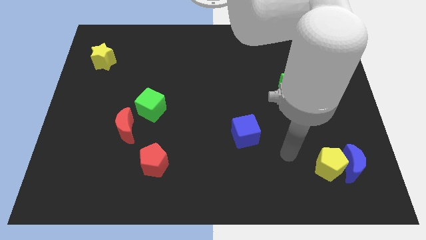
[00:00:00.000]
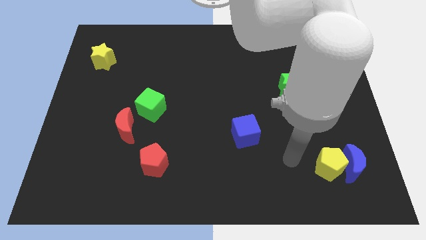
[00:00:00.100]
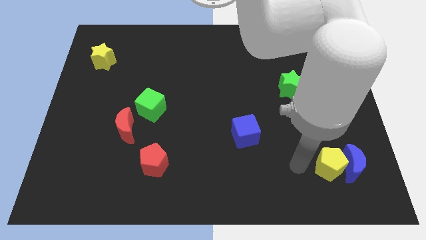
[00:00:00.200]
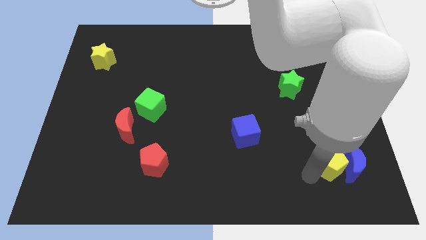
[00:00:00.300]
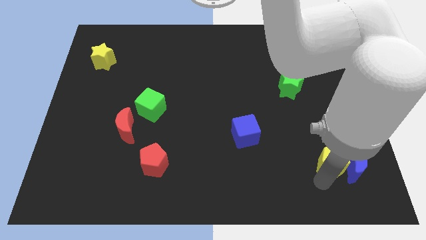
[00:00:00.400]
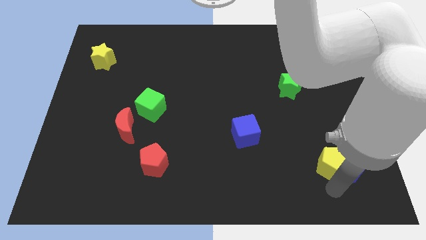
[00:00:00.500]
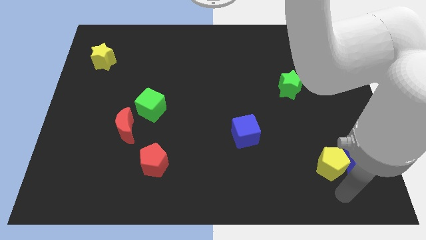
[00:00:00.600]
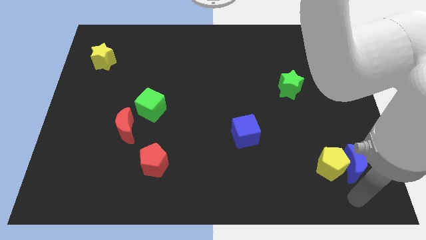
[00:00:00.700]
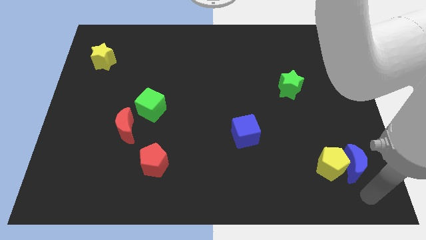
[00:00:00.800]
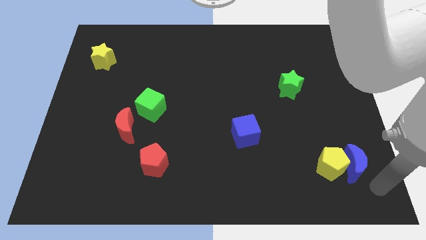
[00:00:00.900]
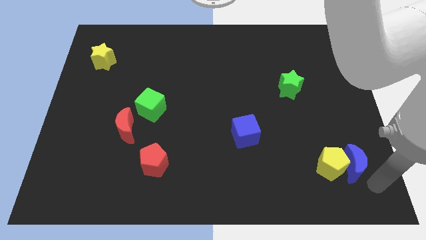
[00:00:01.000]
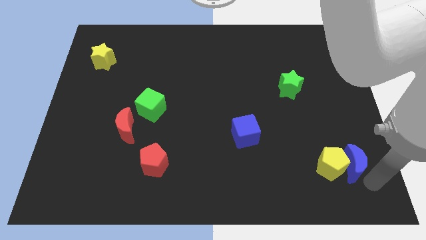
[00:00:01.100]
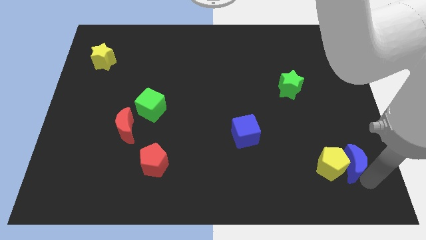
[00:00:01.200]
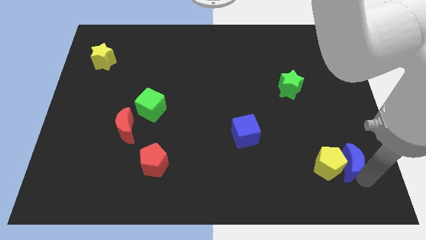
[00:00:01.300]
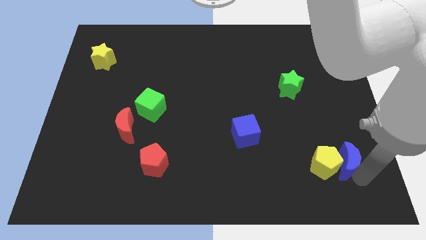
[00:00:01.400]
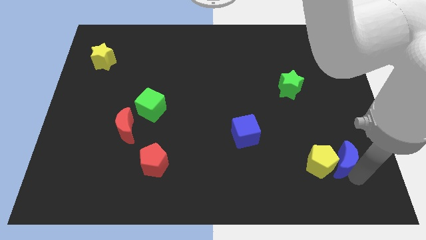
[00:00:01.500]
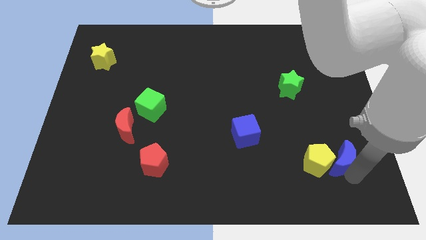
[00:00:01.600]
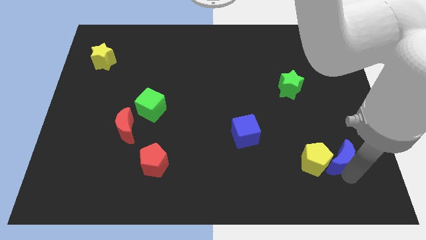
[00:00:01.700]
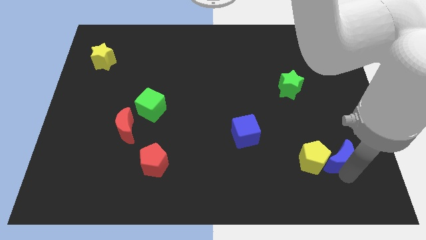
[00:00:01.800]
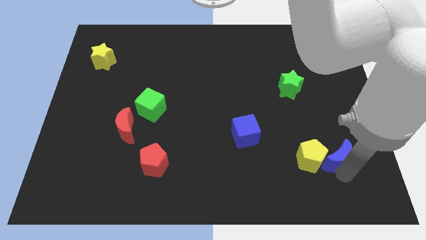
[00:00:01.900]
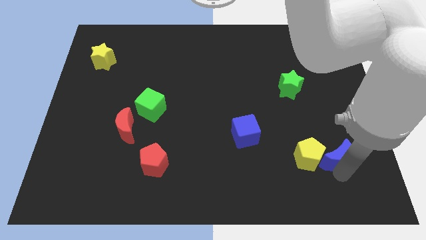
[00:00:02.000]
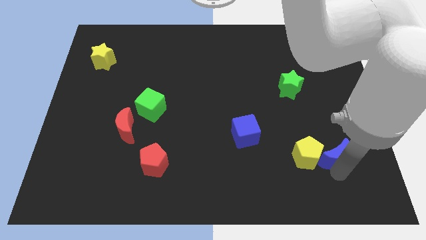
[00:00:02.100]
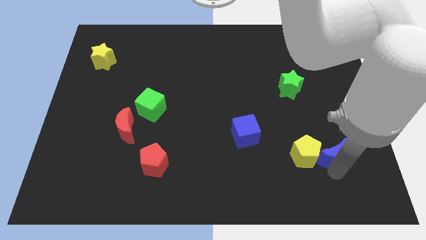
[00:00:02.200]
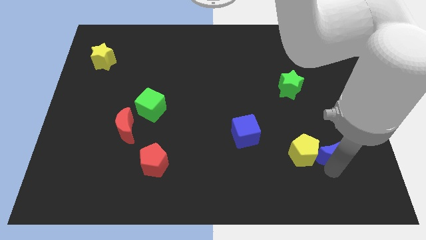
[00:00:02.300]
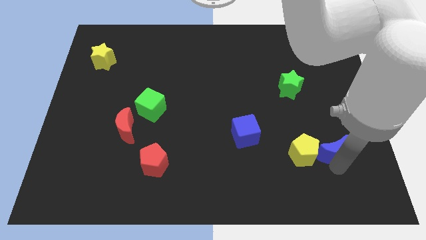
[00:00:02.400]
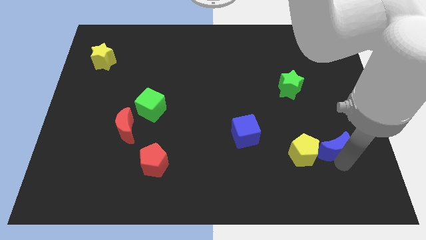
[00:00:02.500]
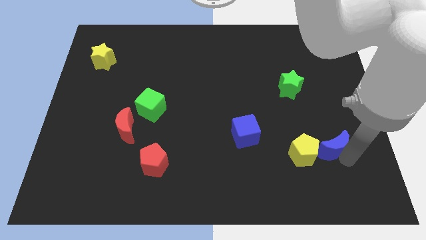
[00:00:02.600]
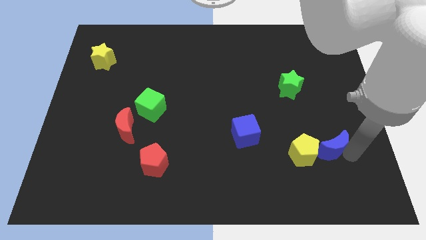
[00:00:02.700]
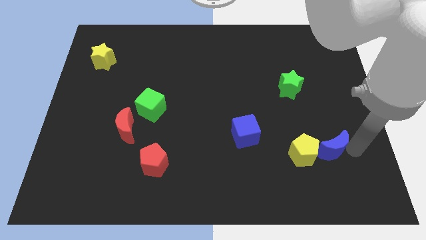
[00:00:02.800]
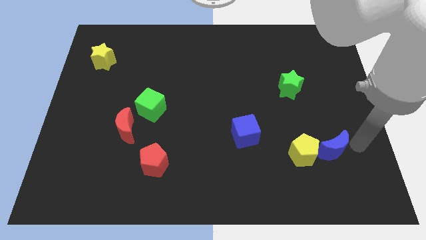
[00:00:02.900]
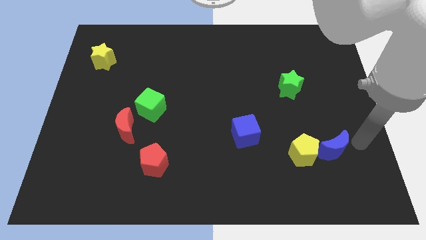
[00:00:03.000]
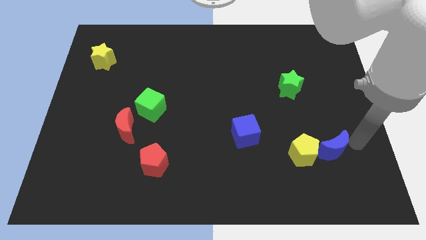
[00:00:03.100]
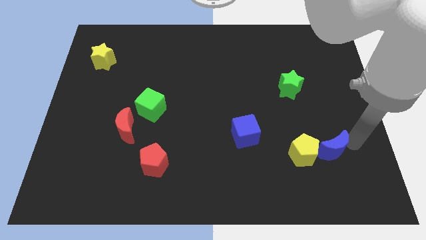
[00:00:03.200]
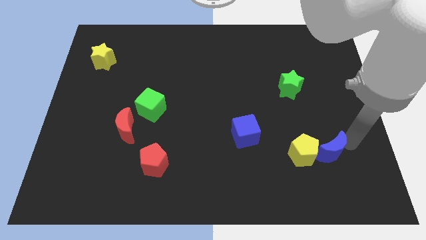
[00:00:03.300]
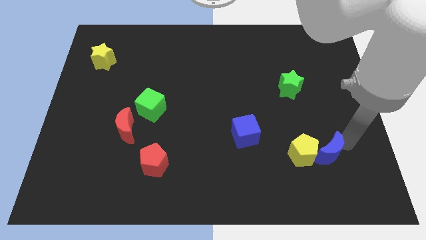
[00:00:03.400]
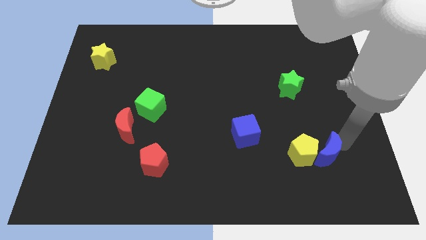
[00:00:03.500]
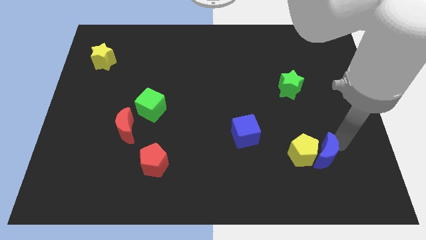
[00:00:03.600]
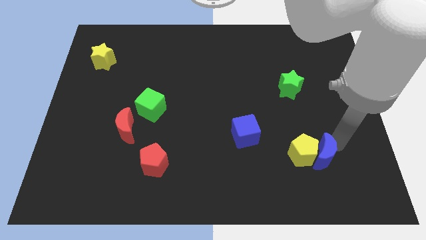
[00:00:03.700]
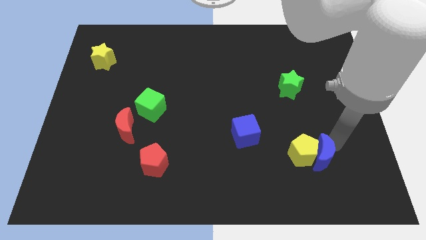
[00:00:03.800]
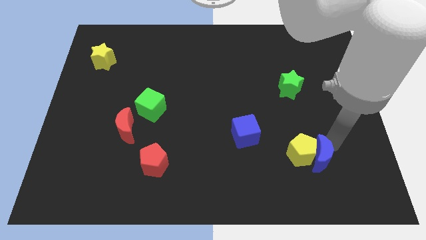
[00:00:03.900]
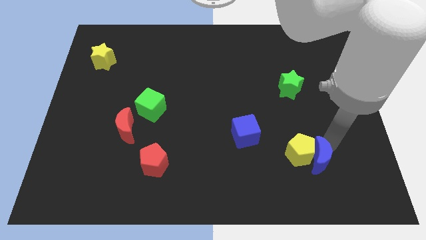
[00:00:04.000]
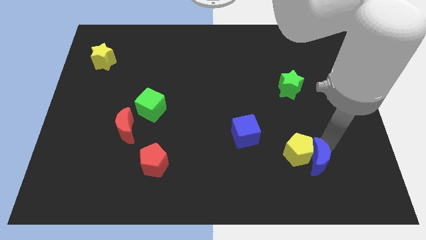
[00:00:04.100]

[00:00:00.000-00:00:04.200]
move the blue moon a little left

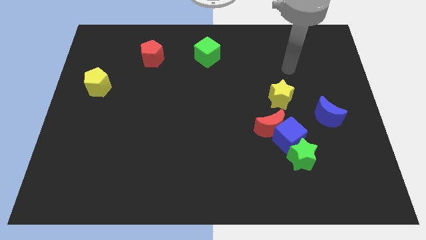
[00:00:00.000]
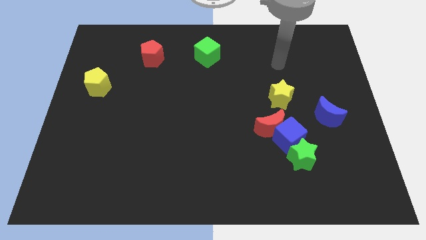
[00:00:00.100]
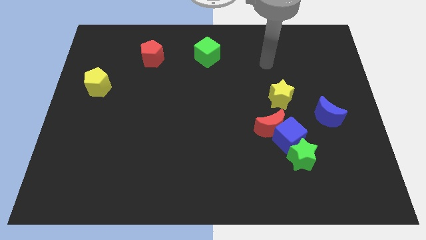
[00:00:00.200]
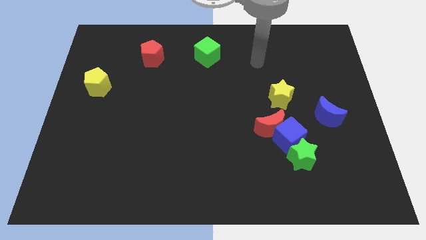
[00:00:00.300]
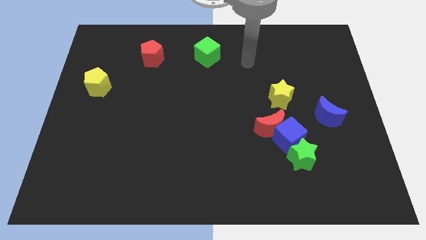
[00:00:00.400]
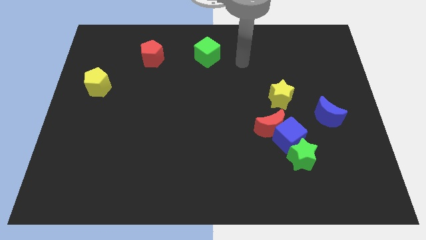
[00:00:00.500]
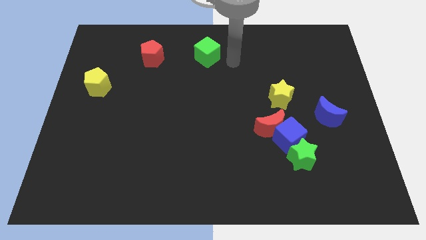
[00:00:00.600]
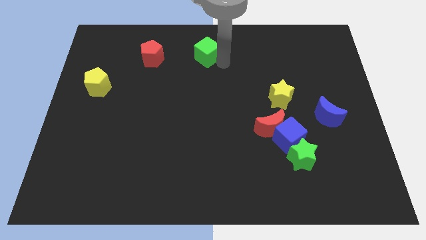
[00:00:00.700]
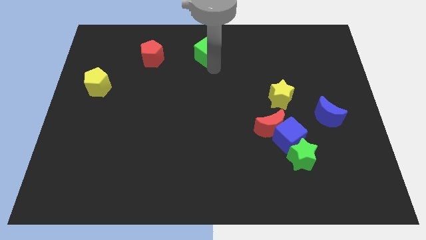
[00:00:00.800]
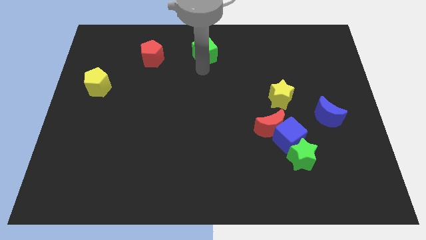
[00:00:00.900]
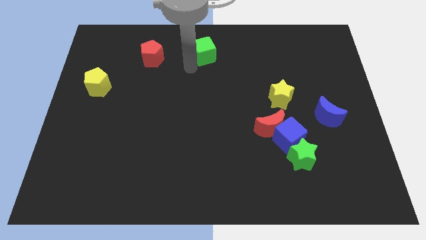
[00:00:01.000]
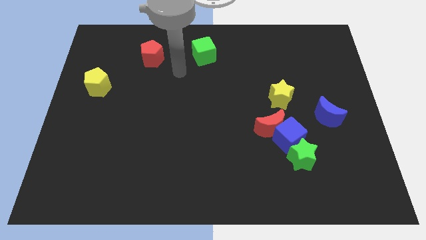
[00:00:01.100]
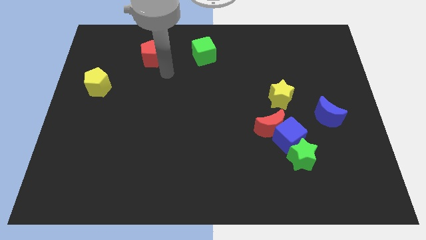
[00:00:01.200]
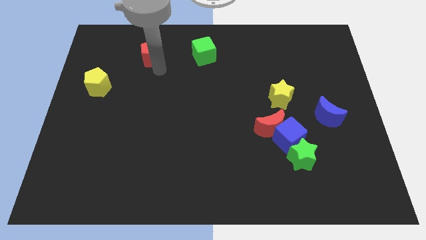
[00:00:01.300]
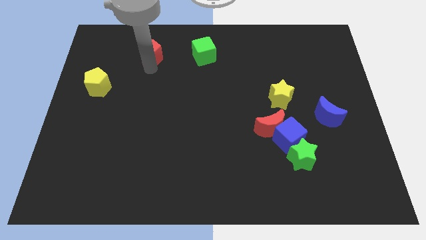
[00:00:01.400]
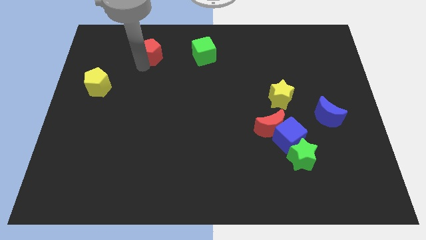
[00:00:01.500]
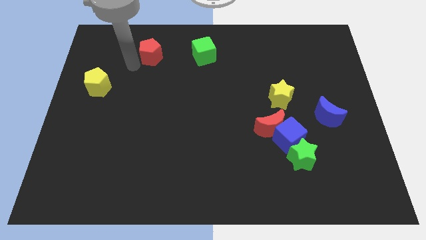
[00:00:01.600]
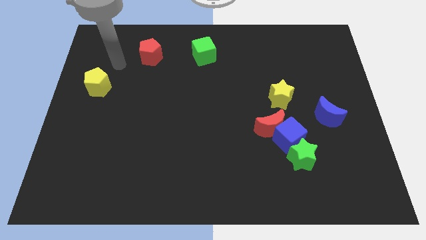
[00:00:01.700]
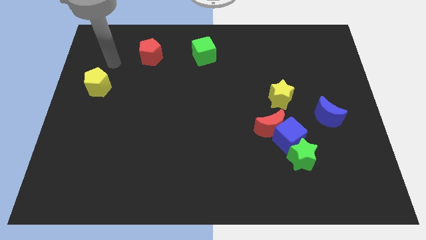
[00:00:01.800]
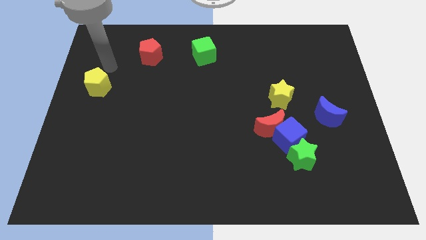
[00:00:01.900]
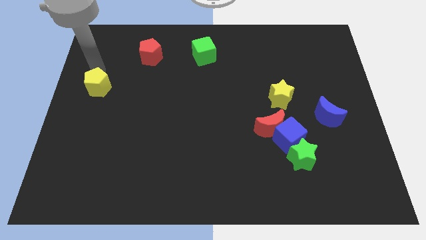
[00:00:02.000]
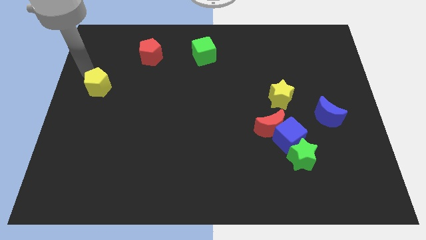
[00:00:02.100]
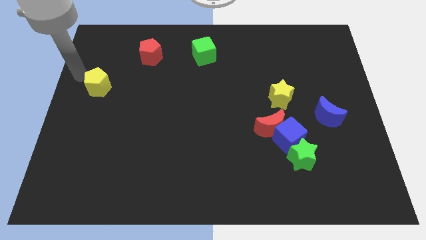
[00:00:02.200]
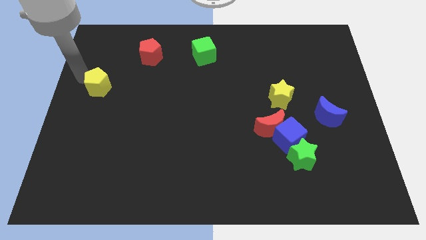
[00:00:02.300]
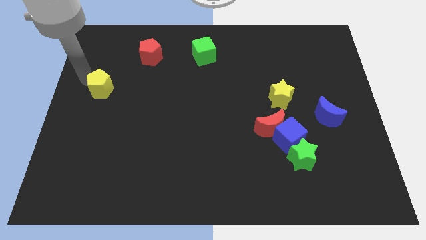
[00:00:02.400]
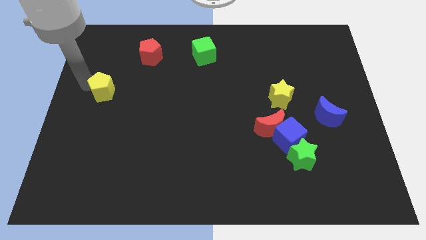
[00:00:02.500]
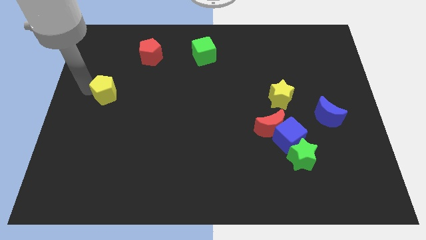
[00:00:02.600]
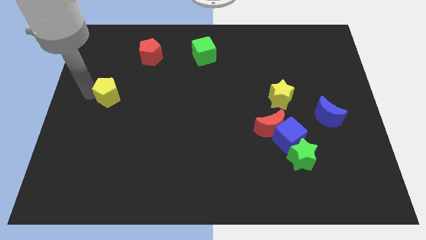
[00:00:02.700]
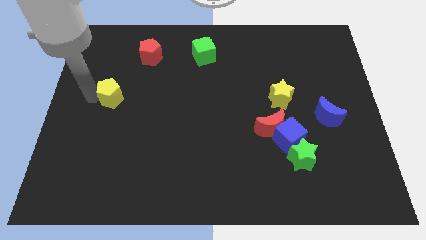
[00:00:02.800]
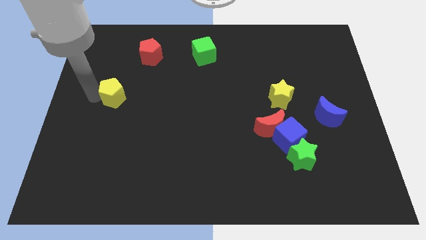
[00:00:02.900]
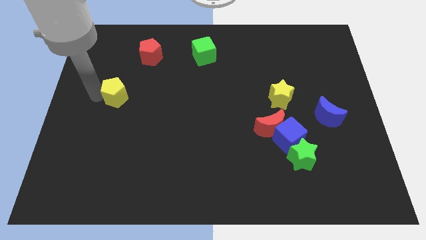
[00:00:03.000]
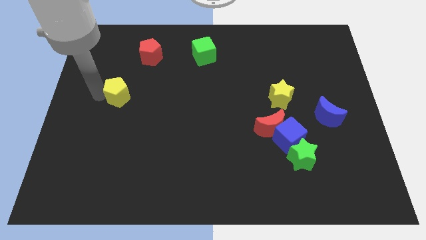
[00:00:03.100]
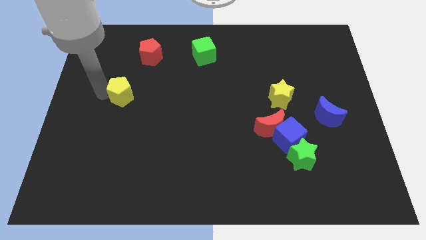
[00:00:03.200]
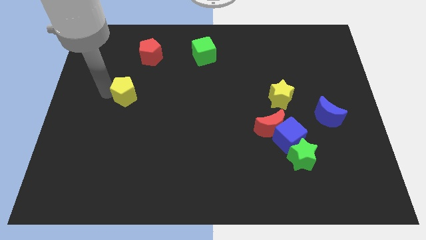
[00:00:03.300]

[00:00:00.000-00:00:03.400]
move the yellow pentagon a little to the right

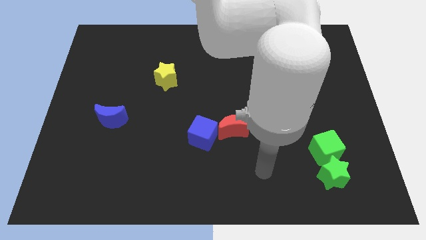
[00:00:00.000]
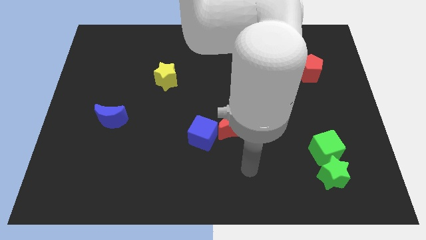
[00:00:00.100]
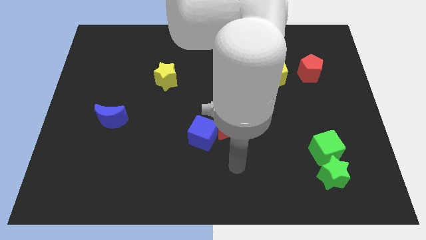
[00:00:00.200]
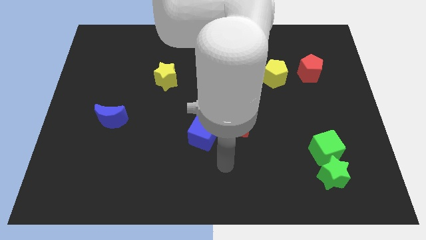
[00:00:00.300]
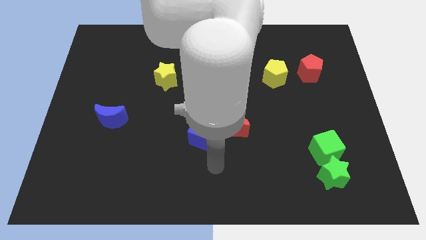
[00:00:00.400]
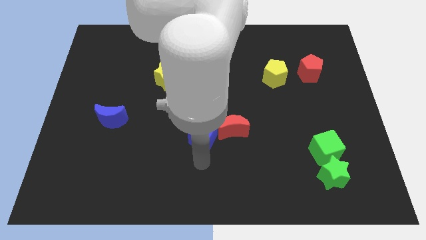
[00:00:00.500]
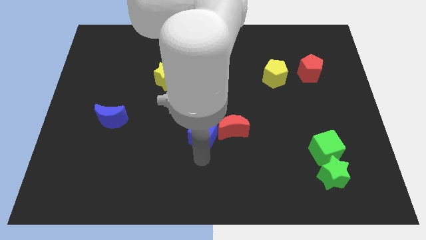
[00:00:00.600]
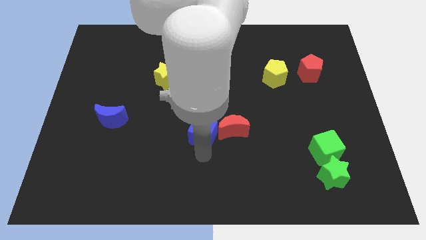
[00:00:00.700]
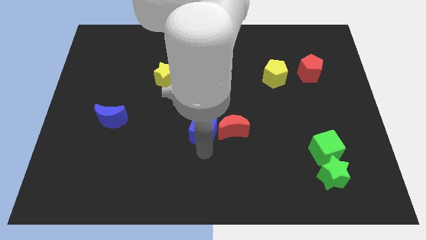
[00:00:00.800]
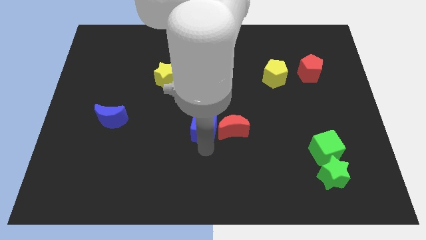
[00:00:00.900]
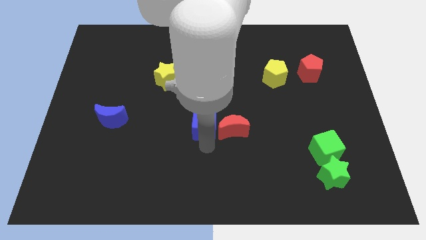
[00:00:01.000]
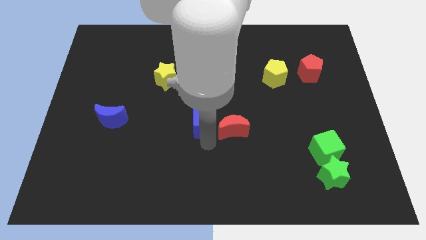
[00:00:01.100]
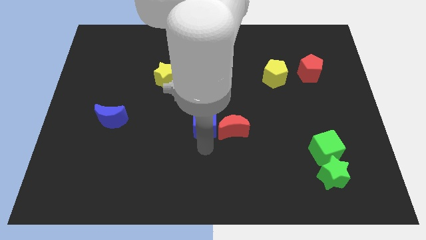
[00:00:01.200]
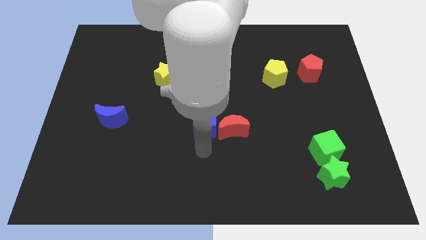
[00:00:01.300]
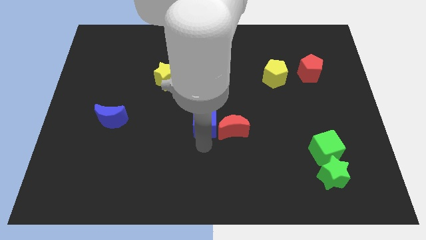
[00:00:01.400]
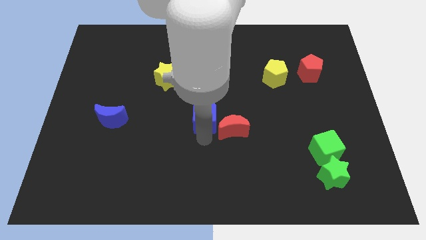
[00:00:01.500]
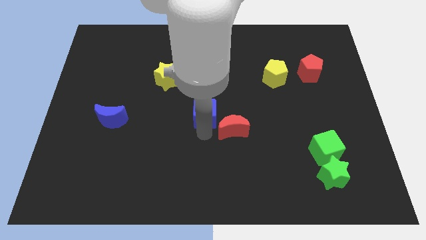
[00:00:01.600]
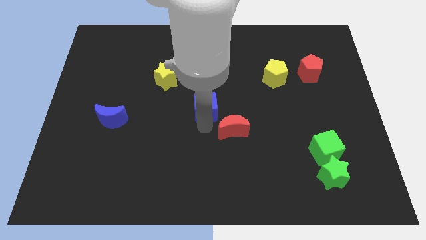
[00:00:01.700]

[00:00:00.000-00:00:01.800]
slide the blue cube up a bit
